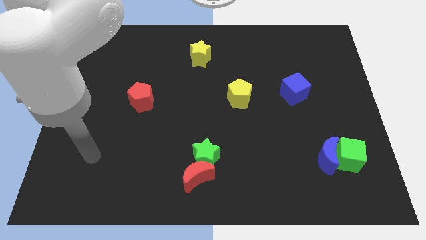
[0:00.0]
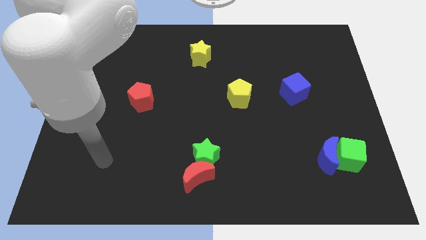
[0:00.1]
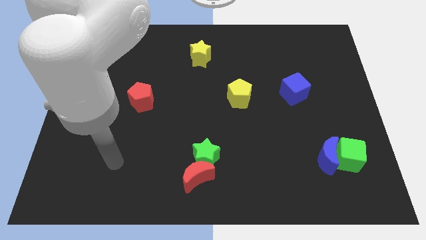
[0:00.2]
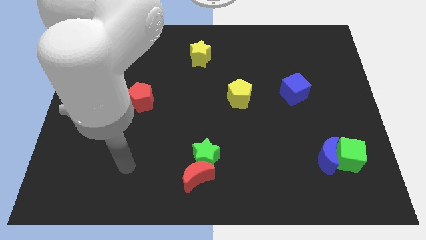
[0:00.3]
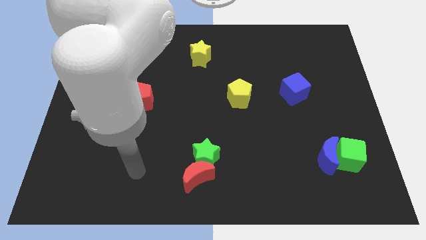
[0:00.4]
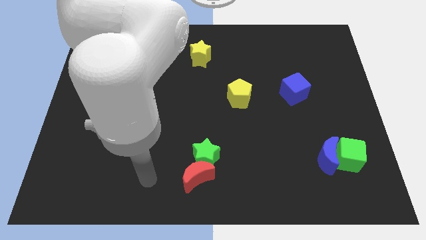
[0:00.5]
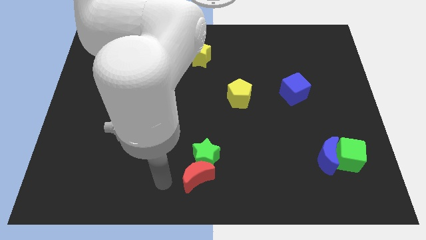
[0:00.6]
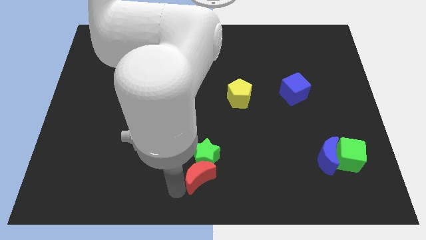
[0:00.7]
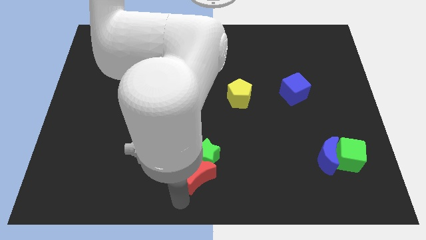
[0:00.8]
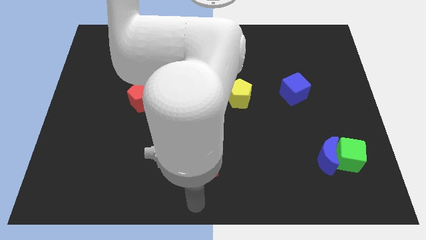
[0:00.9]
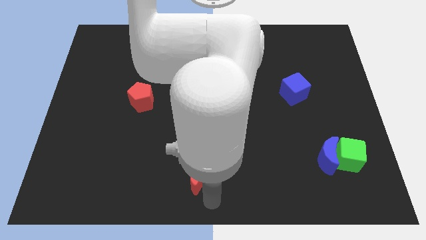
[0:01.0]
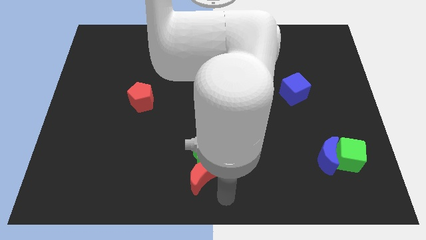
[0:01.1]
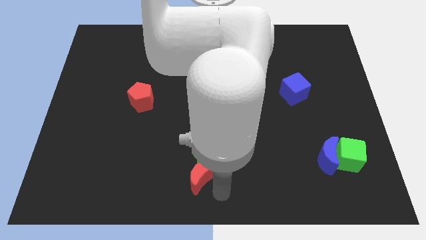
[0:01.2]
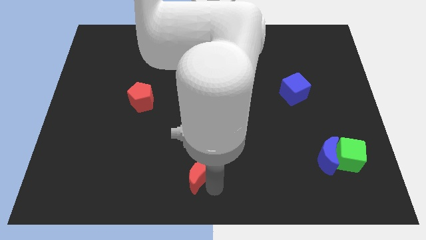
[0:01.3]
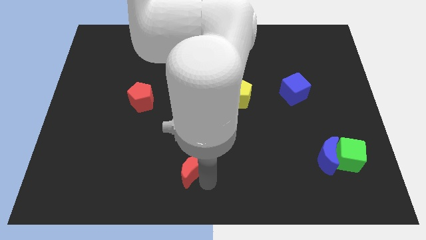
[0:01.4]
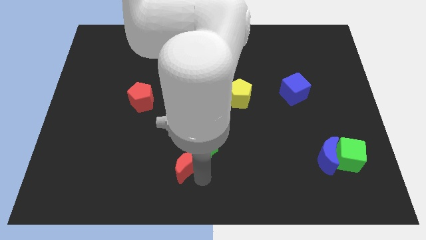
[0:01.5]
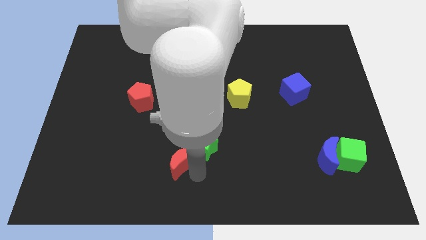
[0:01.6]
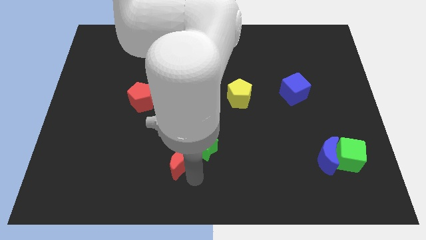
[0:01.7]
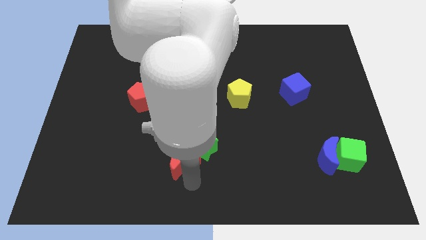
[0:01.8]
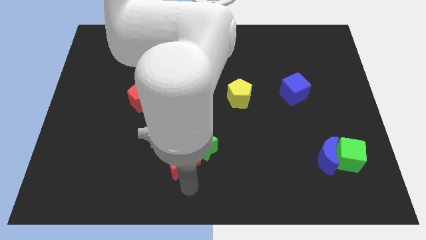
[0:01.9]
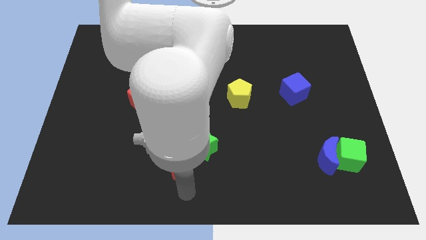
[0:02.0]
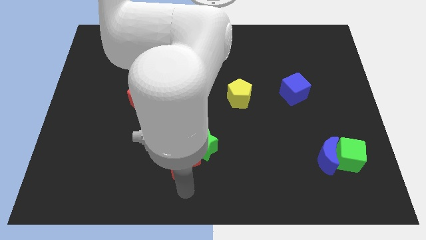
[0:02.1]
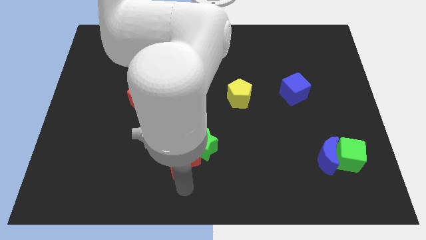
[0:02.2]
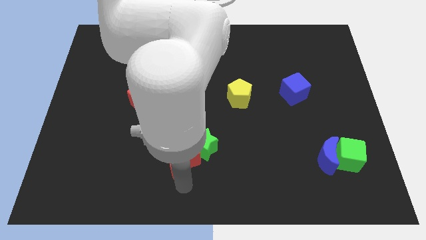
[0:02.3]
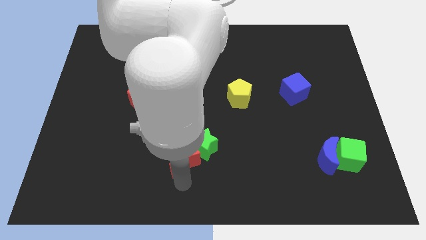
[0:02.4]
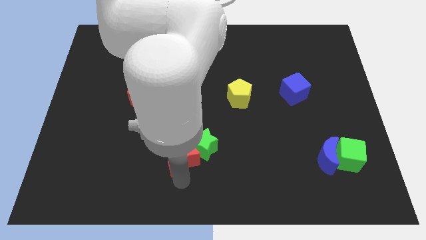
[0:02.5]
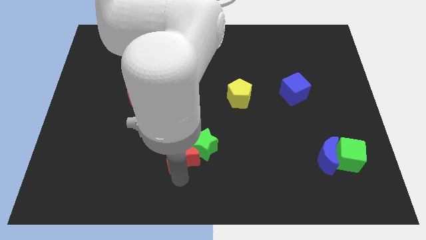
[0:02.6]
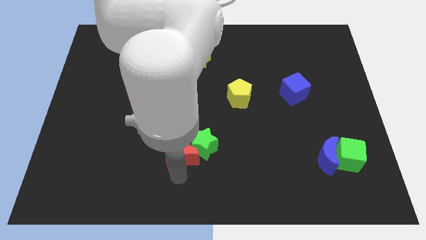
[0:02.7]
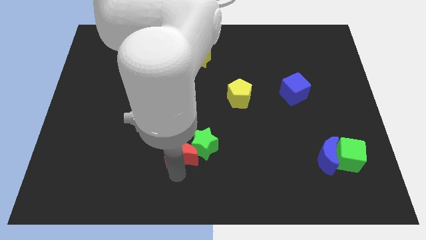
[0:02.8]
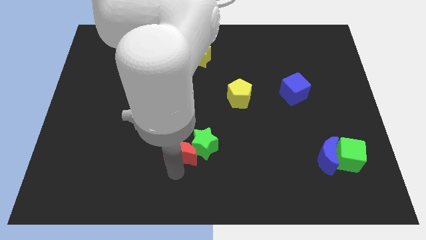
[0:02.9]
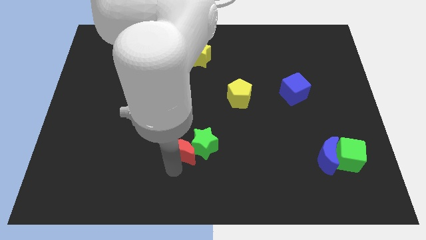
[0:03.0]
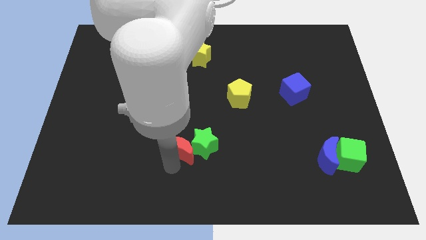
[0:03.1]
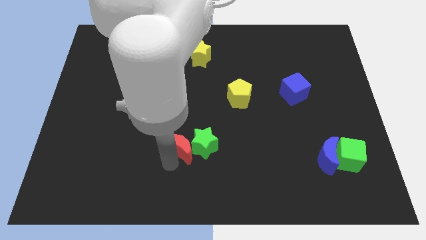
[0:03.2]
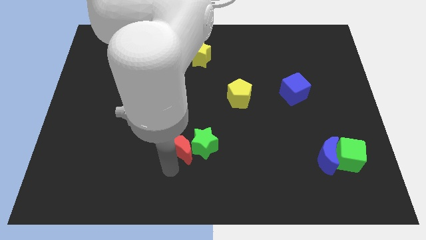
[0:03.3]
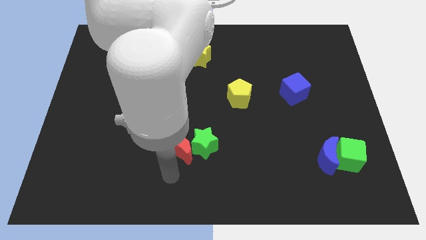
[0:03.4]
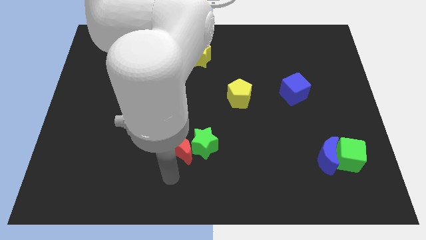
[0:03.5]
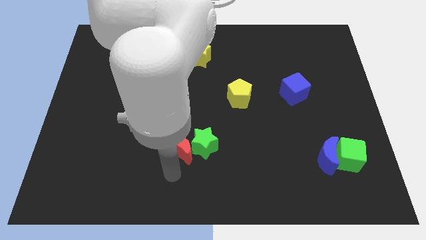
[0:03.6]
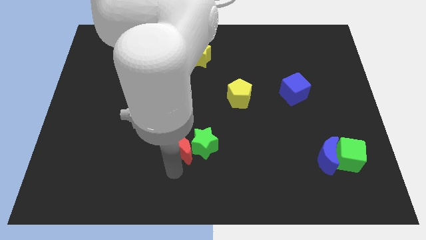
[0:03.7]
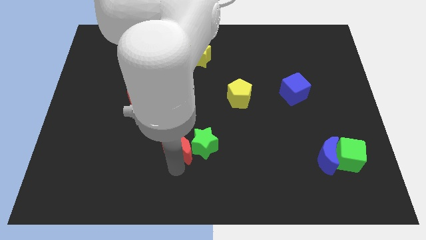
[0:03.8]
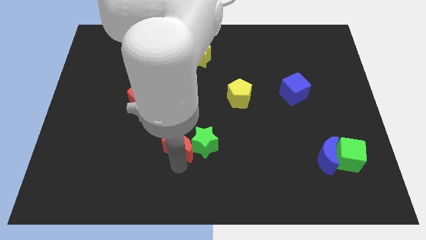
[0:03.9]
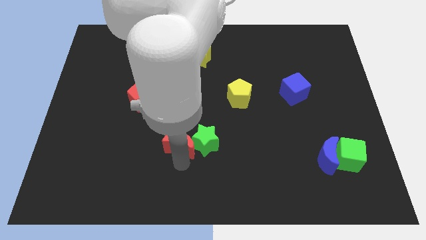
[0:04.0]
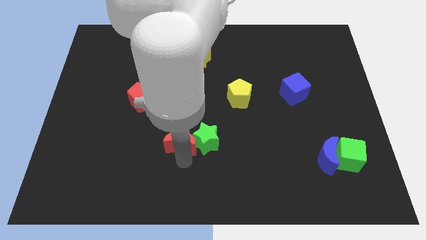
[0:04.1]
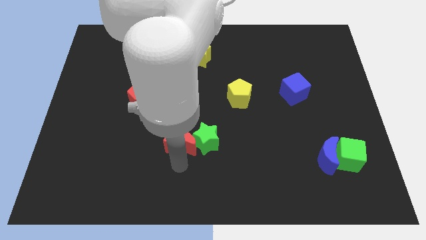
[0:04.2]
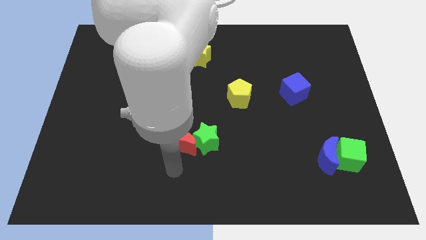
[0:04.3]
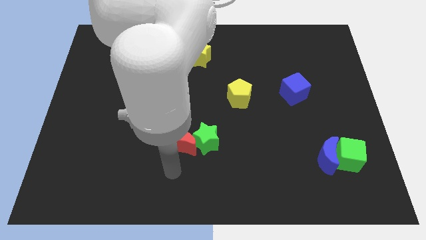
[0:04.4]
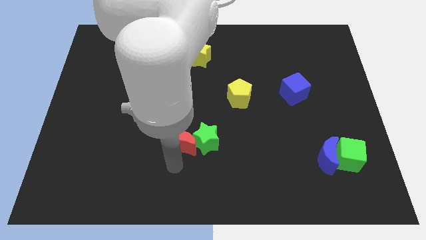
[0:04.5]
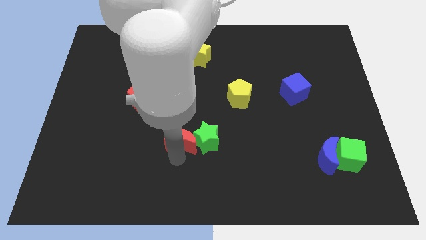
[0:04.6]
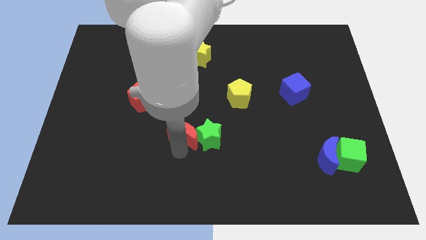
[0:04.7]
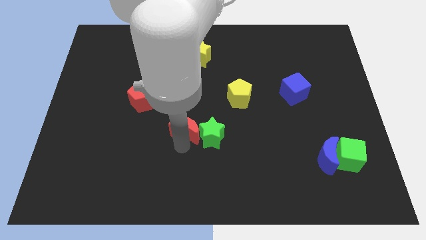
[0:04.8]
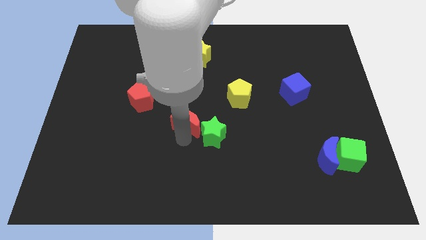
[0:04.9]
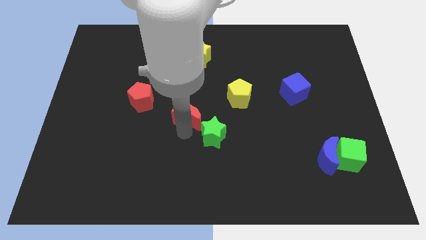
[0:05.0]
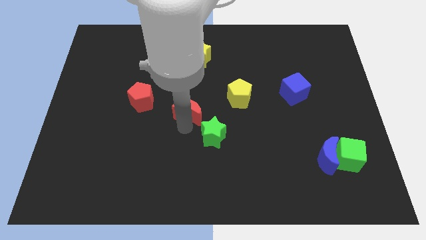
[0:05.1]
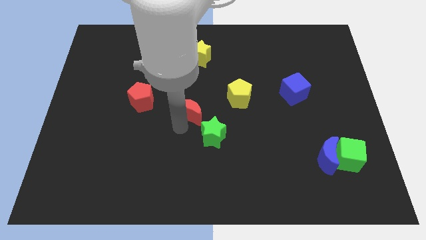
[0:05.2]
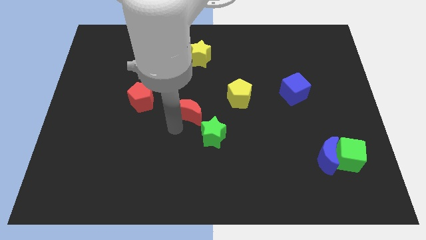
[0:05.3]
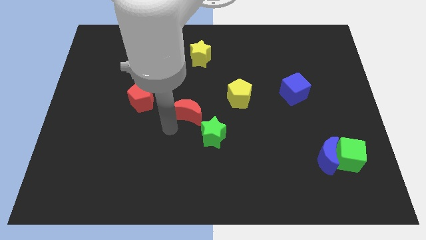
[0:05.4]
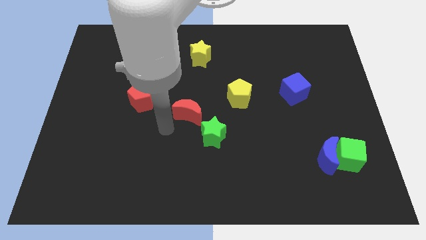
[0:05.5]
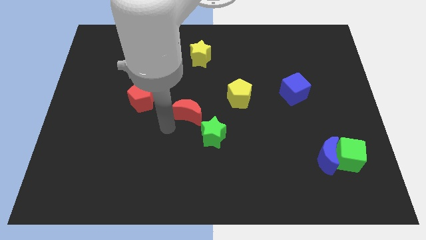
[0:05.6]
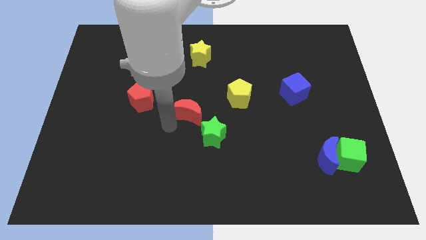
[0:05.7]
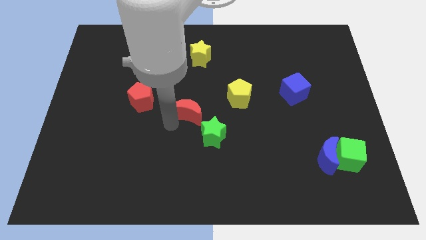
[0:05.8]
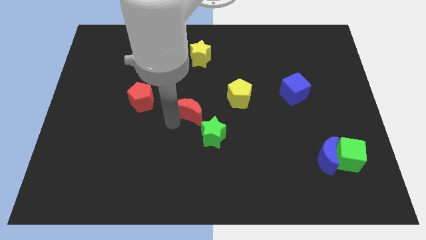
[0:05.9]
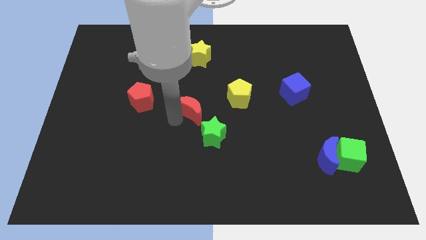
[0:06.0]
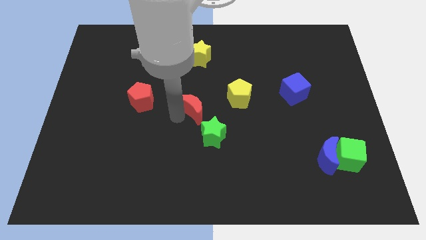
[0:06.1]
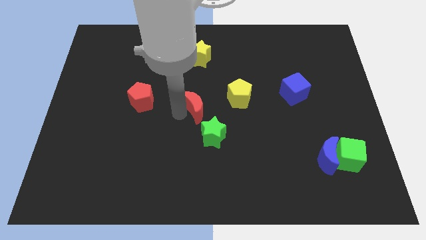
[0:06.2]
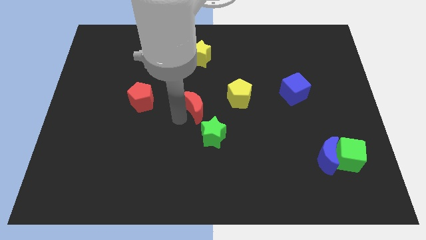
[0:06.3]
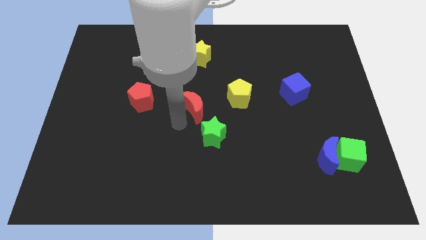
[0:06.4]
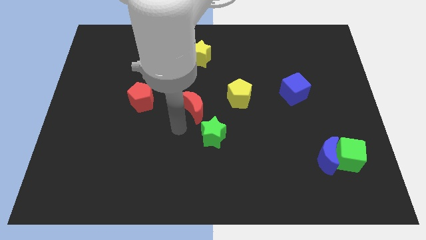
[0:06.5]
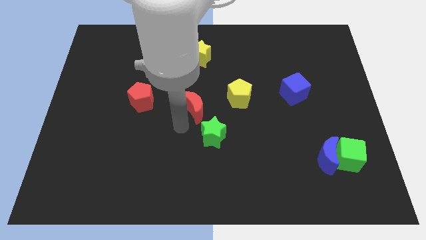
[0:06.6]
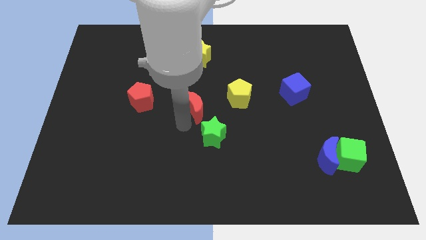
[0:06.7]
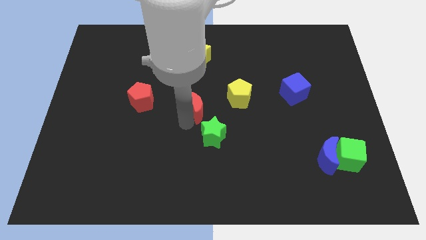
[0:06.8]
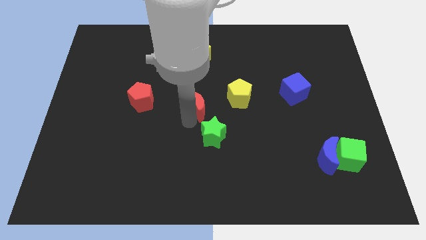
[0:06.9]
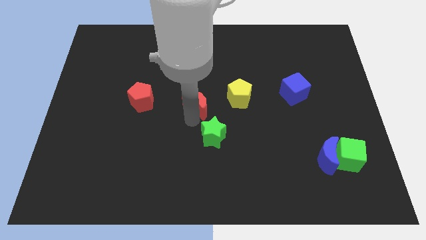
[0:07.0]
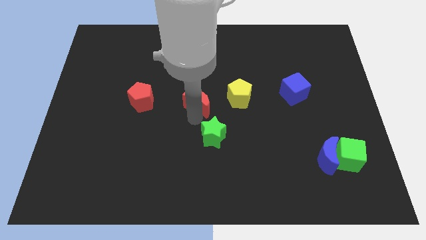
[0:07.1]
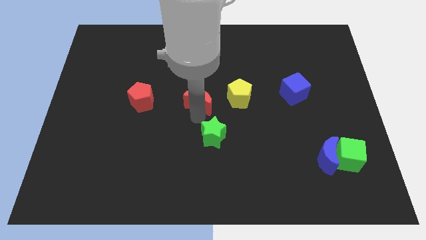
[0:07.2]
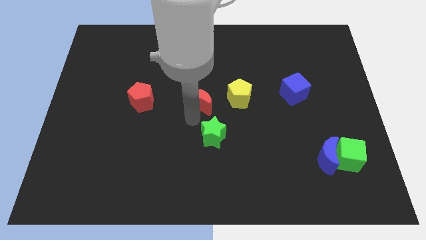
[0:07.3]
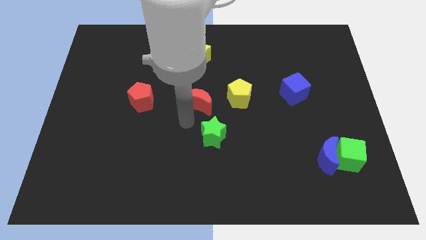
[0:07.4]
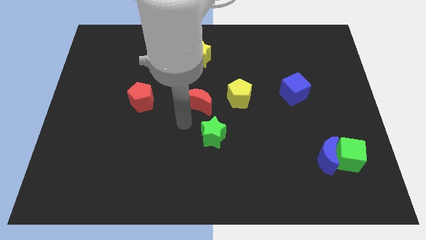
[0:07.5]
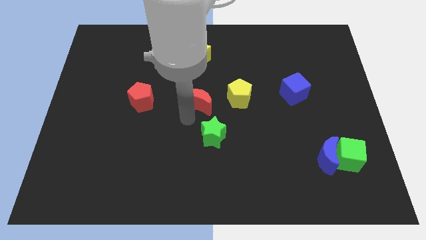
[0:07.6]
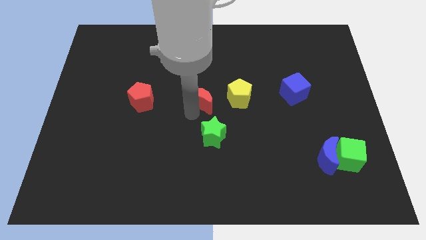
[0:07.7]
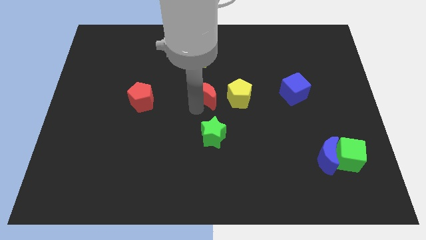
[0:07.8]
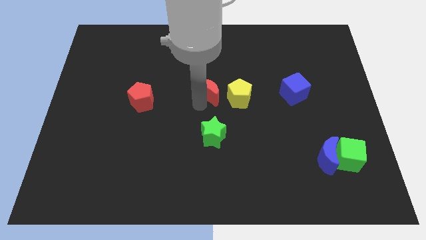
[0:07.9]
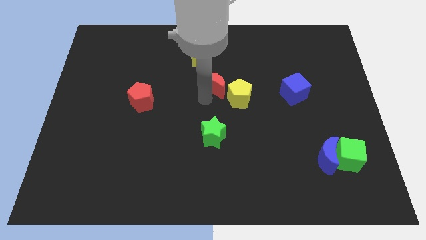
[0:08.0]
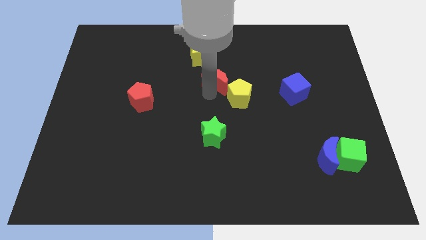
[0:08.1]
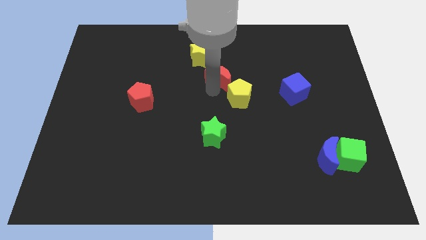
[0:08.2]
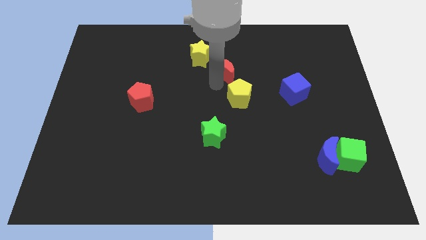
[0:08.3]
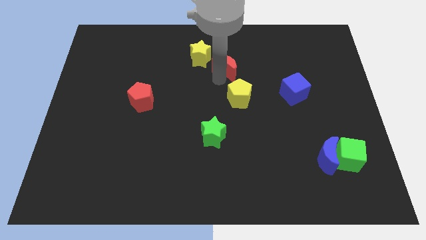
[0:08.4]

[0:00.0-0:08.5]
push the red moon just right of the yellow star
